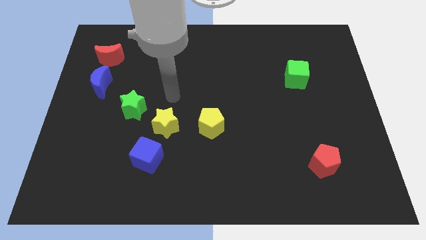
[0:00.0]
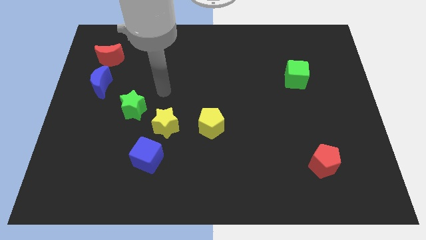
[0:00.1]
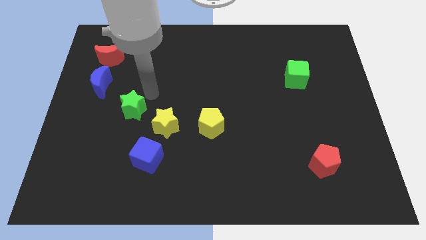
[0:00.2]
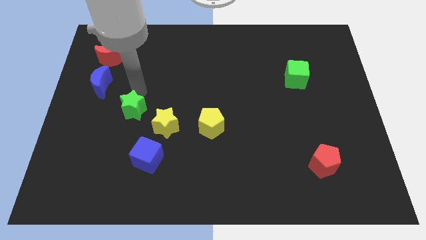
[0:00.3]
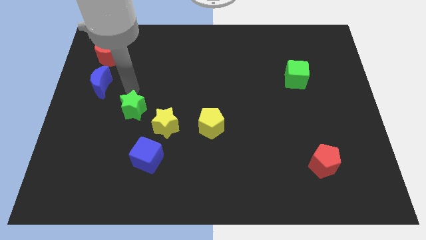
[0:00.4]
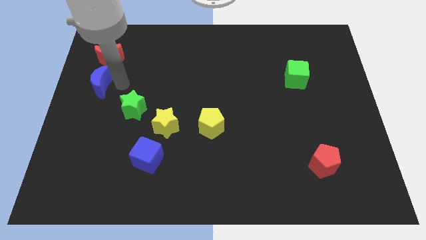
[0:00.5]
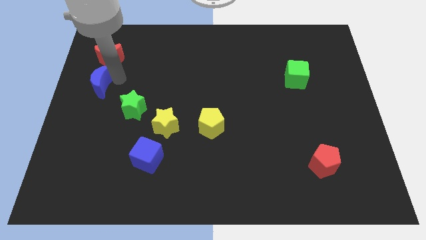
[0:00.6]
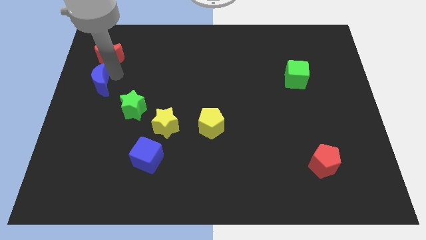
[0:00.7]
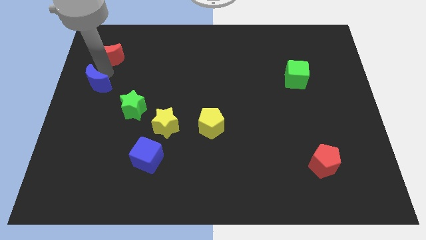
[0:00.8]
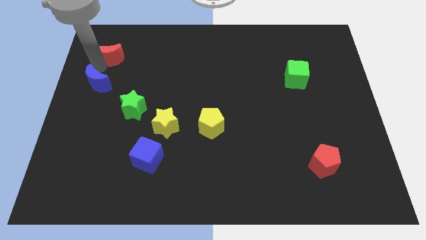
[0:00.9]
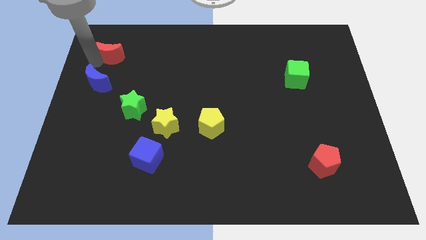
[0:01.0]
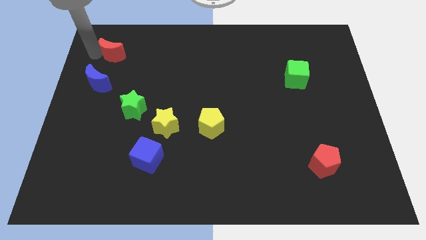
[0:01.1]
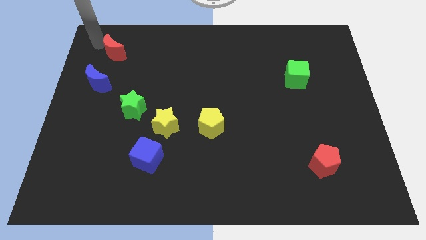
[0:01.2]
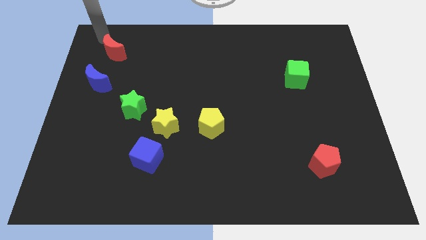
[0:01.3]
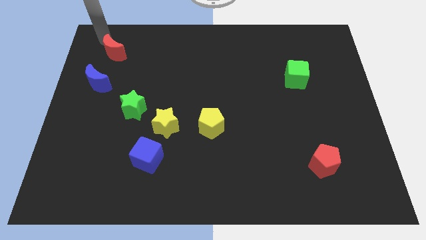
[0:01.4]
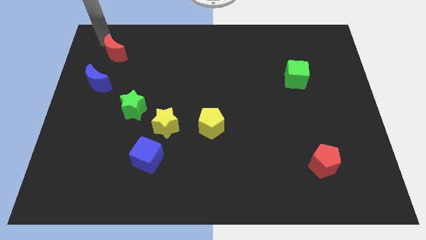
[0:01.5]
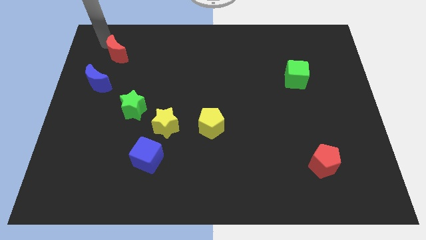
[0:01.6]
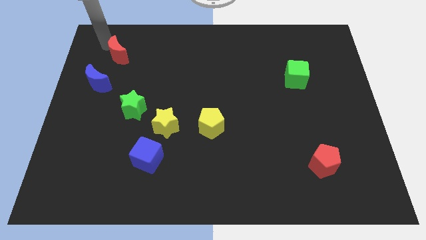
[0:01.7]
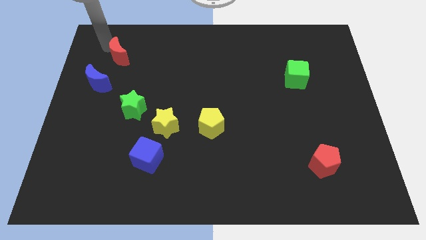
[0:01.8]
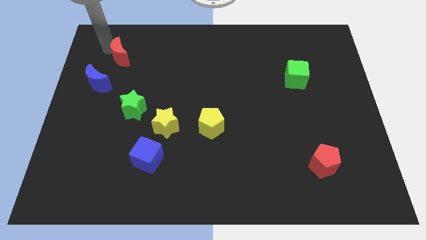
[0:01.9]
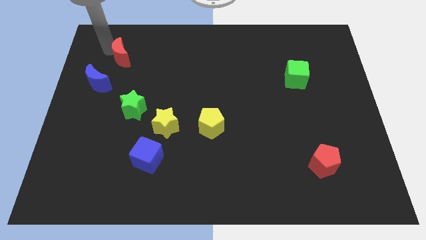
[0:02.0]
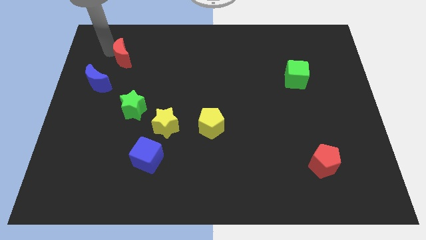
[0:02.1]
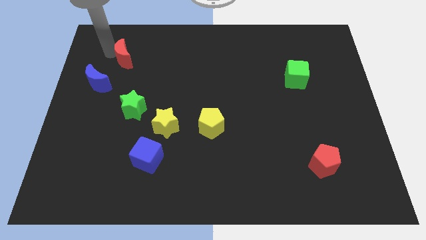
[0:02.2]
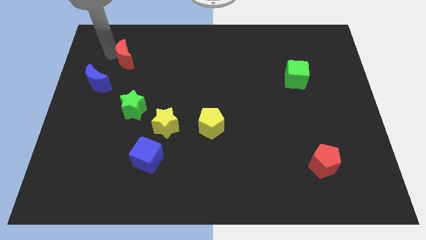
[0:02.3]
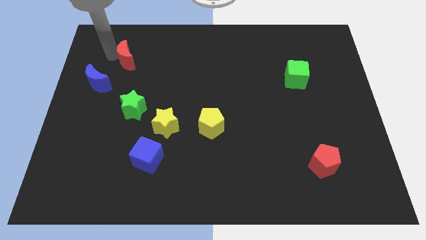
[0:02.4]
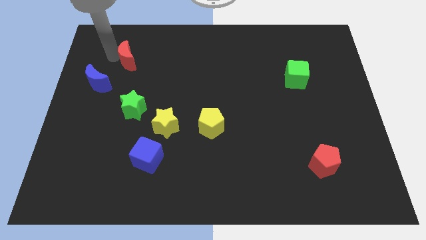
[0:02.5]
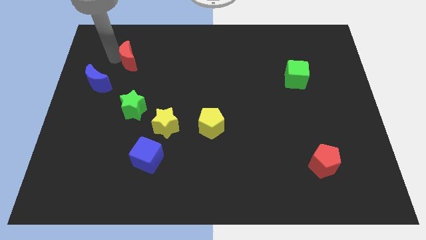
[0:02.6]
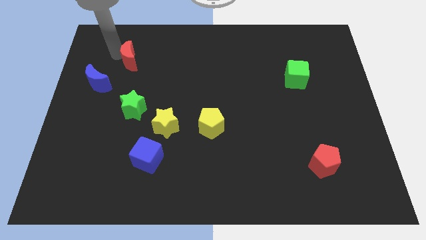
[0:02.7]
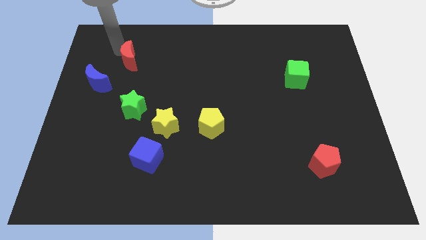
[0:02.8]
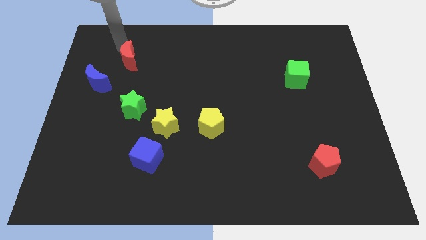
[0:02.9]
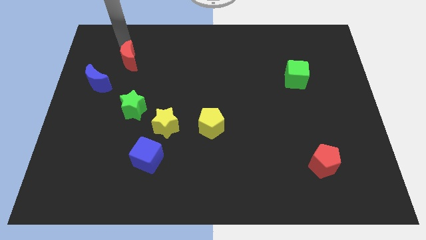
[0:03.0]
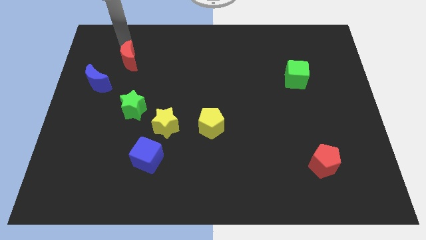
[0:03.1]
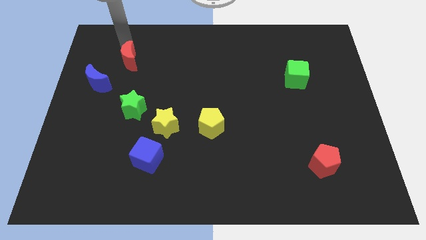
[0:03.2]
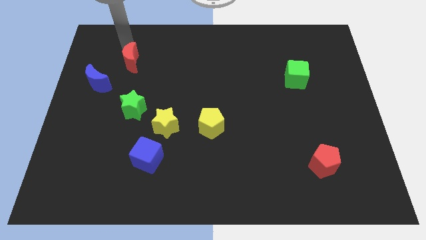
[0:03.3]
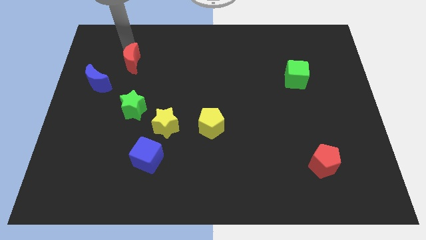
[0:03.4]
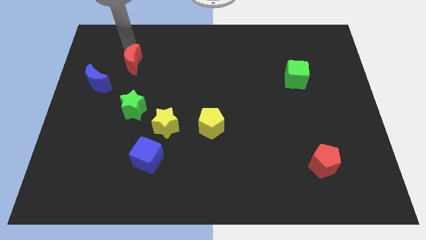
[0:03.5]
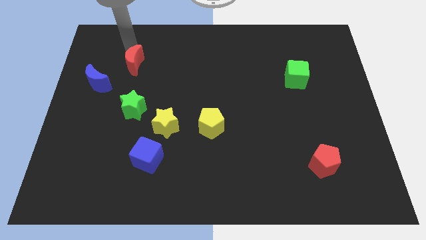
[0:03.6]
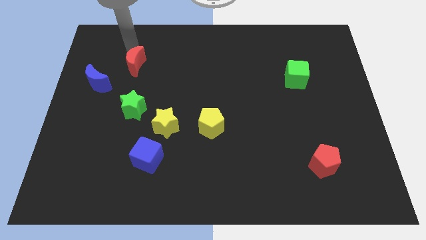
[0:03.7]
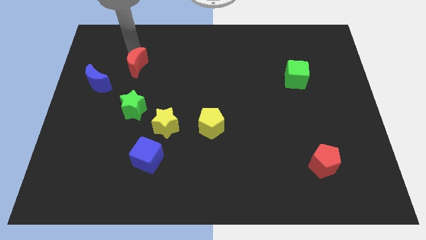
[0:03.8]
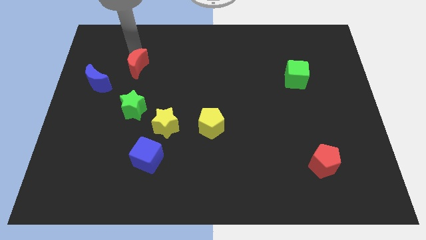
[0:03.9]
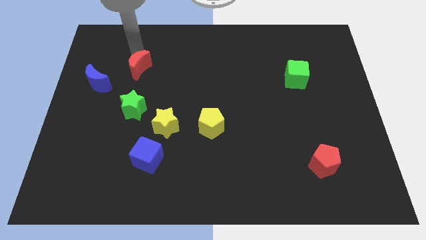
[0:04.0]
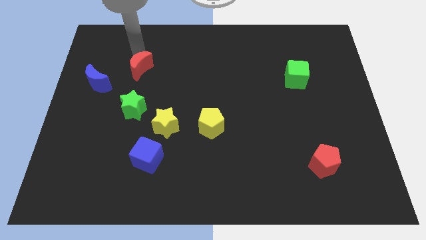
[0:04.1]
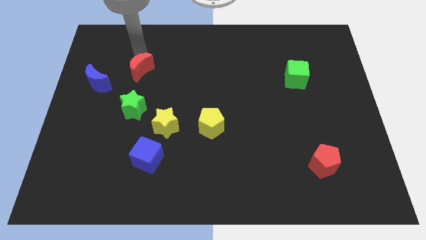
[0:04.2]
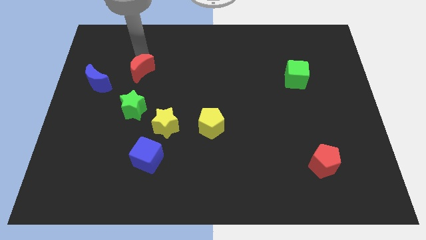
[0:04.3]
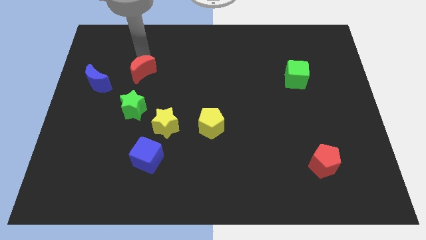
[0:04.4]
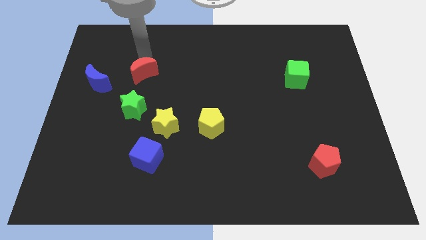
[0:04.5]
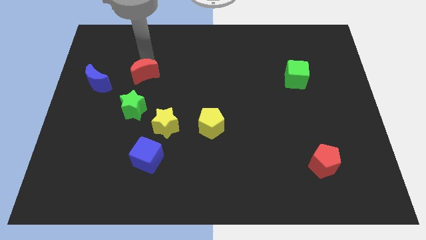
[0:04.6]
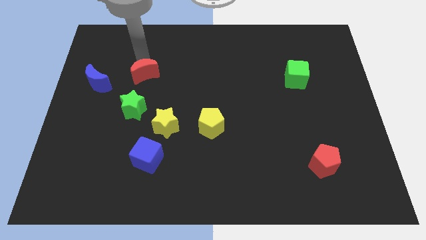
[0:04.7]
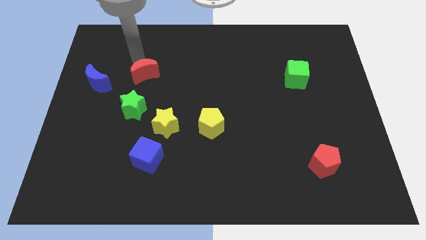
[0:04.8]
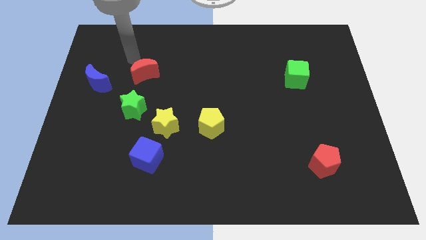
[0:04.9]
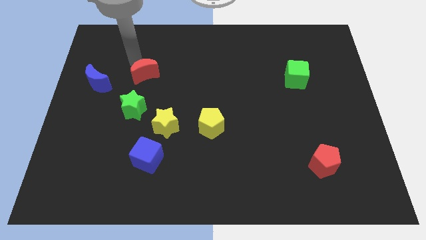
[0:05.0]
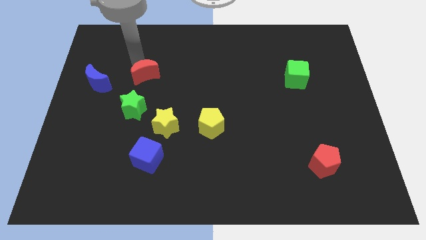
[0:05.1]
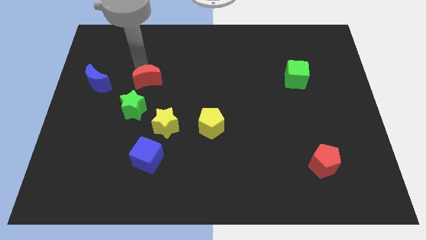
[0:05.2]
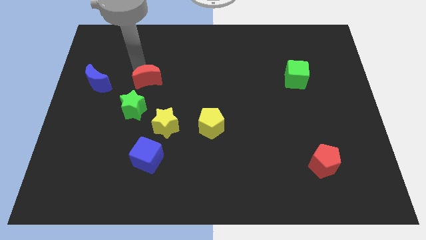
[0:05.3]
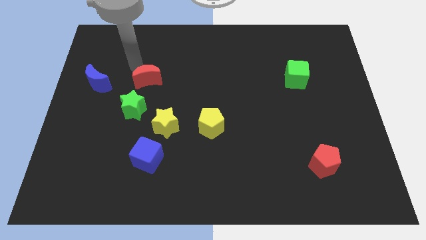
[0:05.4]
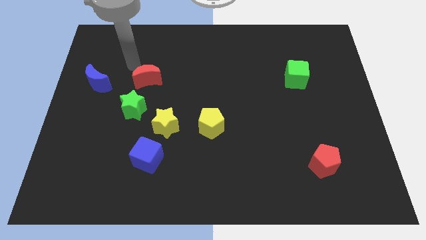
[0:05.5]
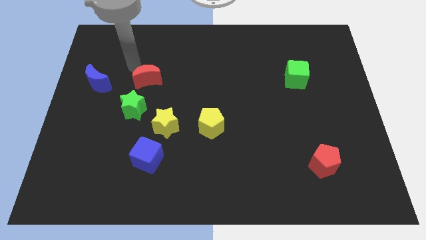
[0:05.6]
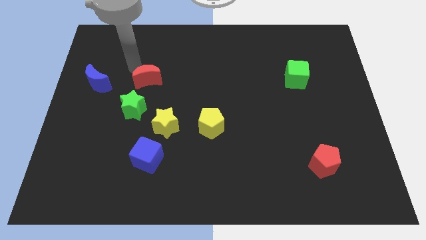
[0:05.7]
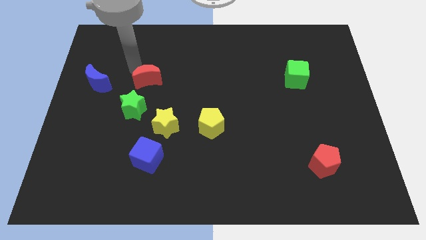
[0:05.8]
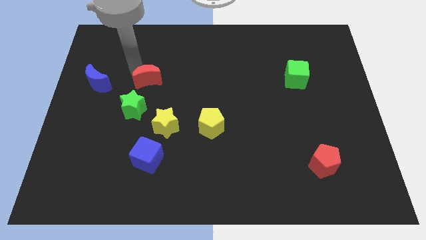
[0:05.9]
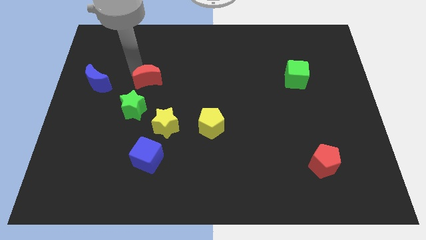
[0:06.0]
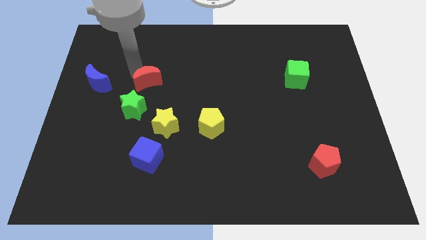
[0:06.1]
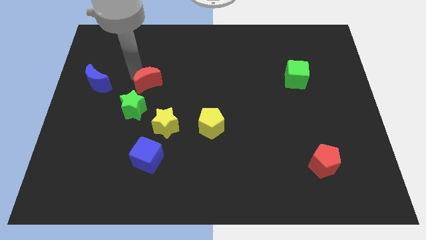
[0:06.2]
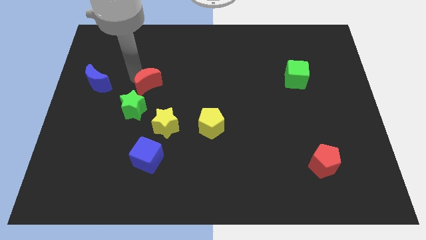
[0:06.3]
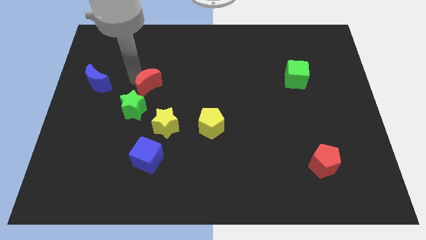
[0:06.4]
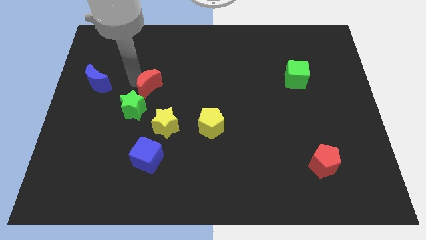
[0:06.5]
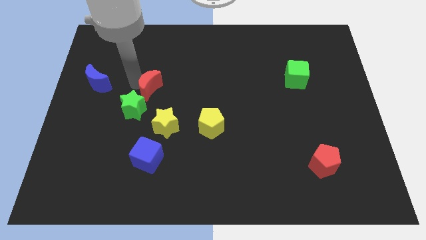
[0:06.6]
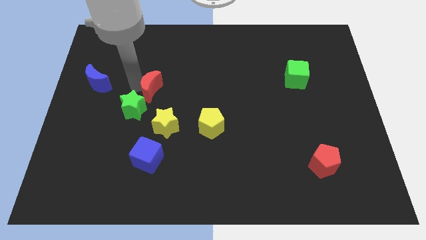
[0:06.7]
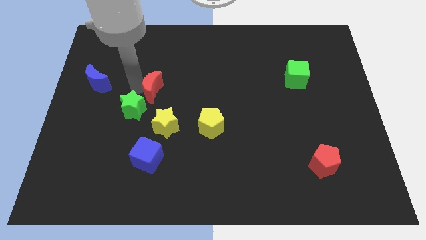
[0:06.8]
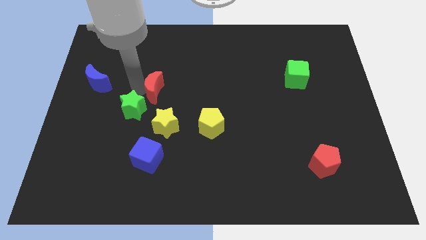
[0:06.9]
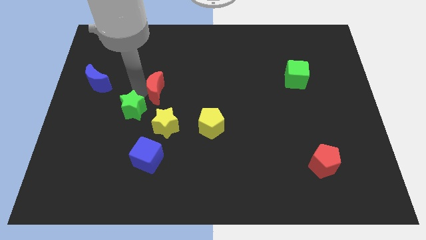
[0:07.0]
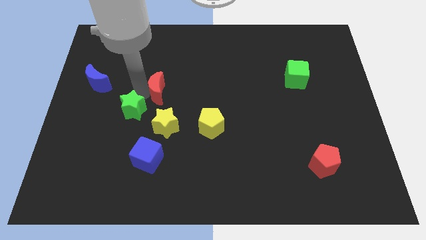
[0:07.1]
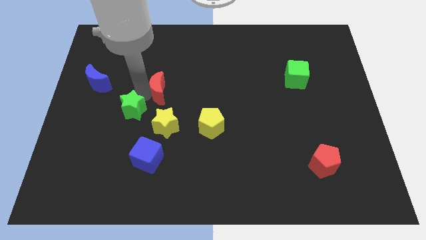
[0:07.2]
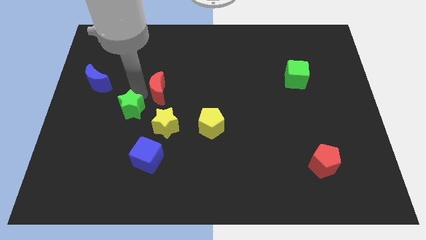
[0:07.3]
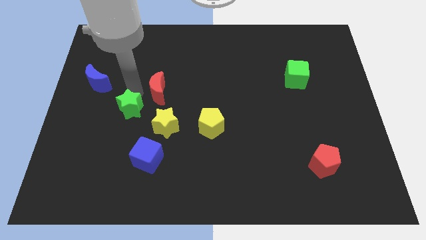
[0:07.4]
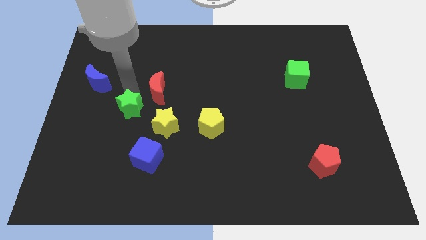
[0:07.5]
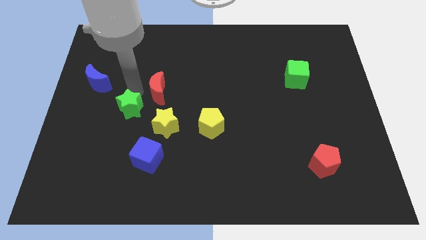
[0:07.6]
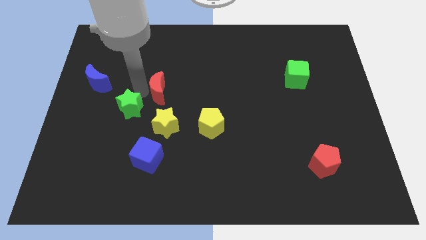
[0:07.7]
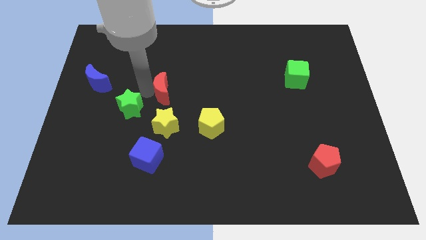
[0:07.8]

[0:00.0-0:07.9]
push the red moon to the center of the board
